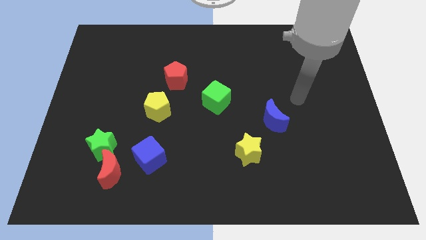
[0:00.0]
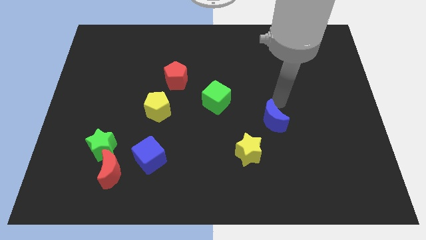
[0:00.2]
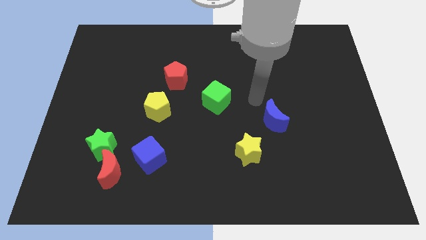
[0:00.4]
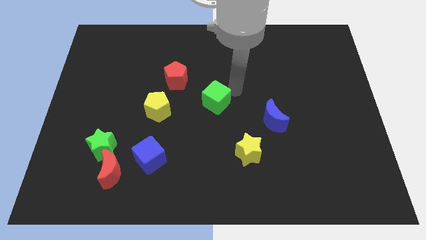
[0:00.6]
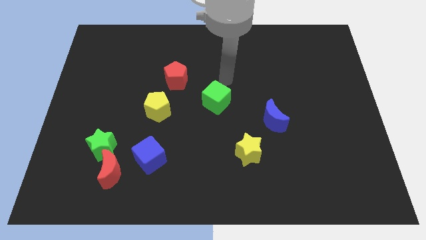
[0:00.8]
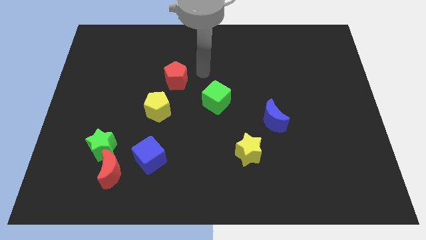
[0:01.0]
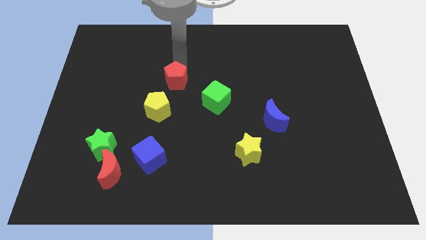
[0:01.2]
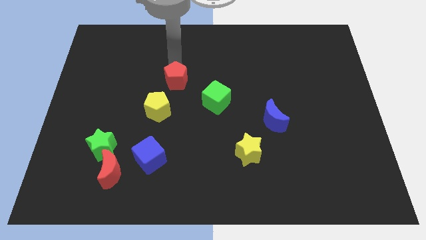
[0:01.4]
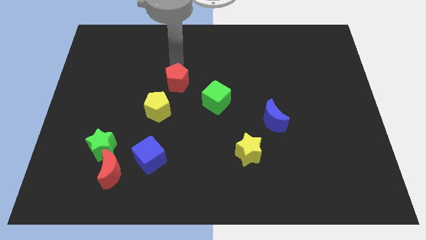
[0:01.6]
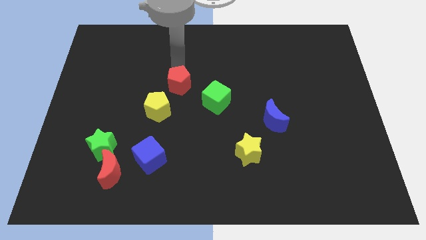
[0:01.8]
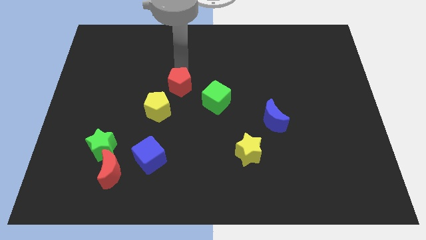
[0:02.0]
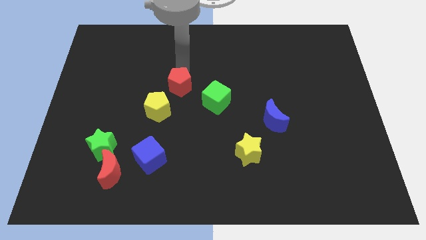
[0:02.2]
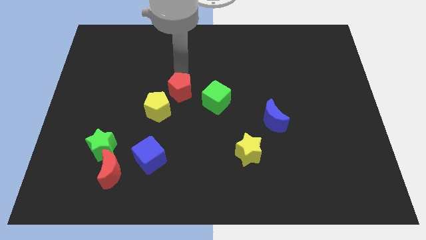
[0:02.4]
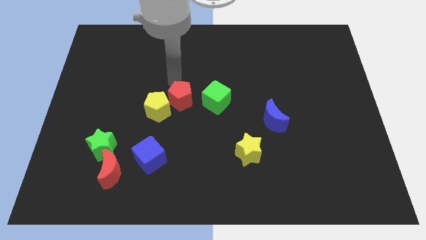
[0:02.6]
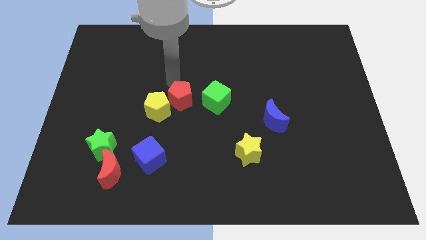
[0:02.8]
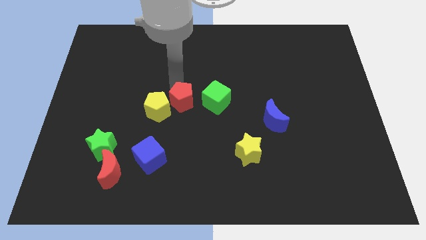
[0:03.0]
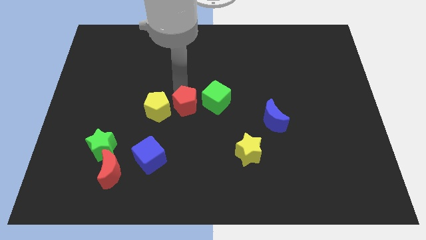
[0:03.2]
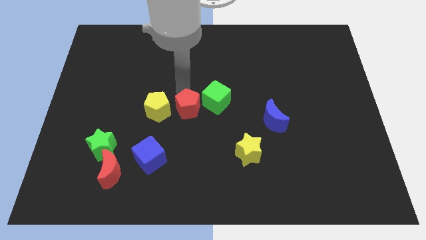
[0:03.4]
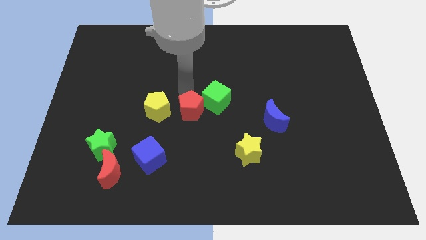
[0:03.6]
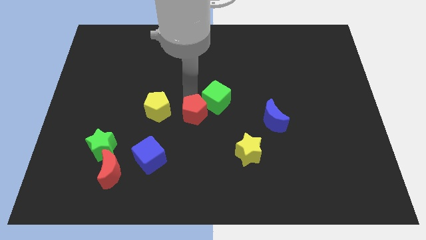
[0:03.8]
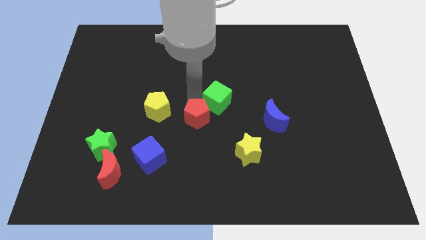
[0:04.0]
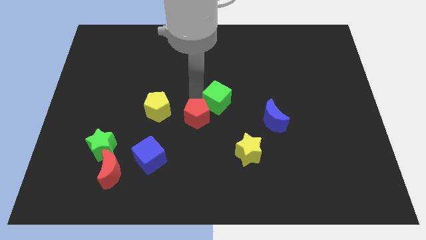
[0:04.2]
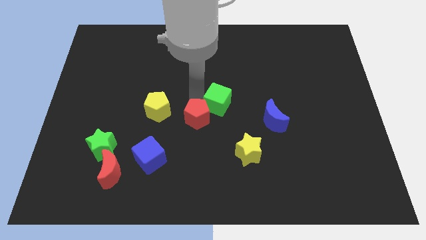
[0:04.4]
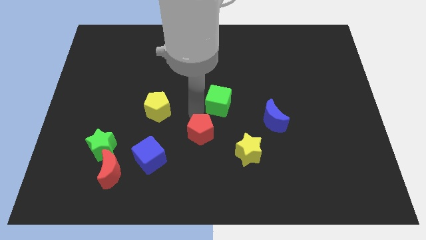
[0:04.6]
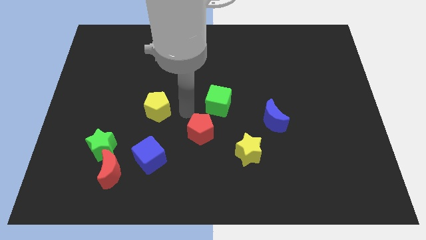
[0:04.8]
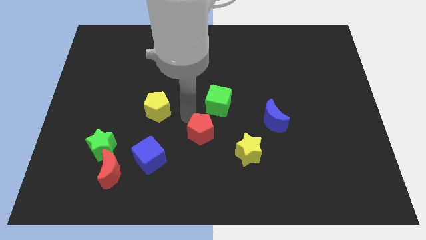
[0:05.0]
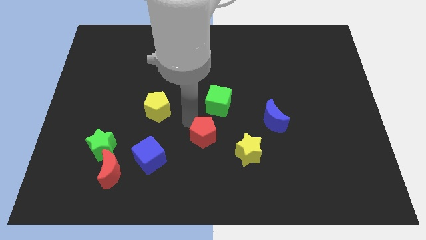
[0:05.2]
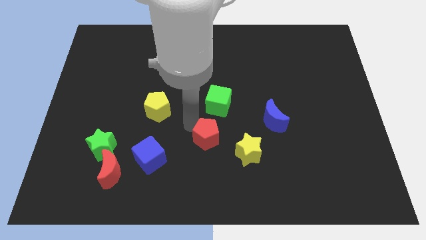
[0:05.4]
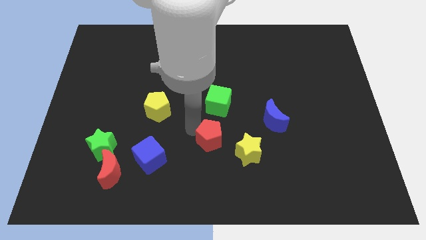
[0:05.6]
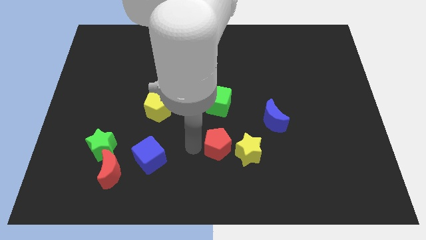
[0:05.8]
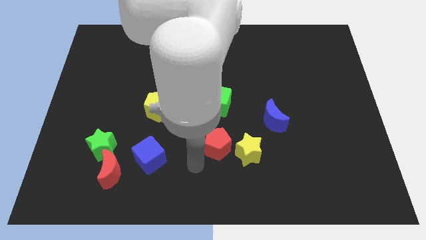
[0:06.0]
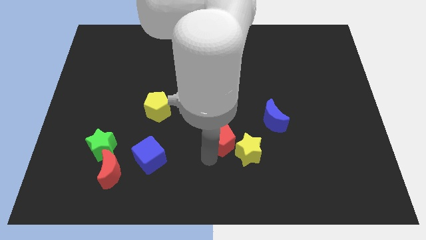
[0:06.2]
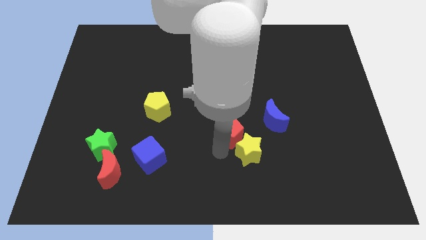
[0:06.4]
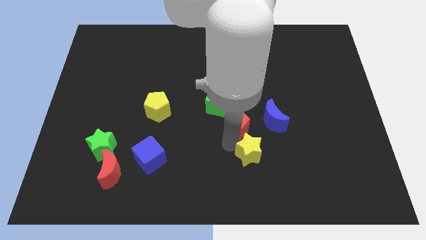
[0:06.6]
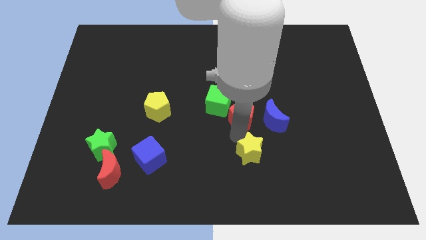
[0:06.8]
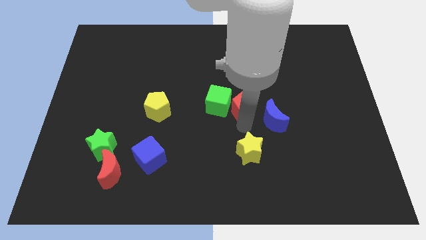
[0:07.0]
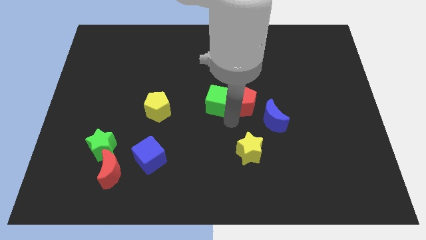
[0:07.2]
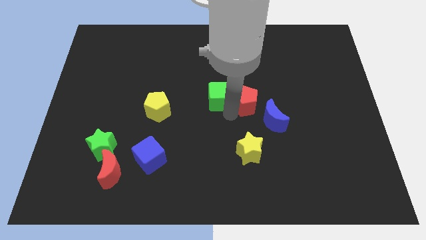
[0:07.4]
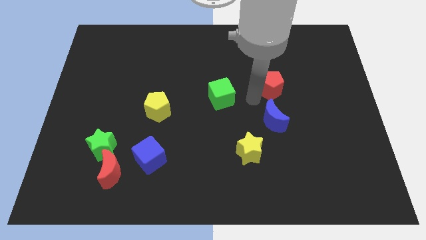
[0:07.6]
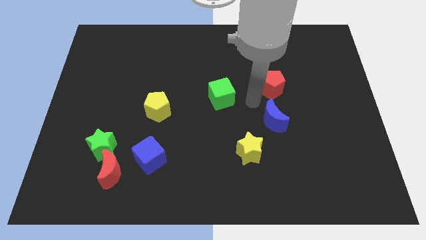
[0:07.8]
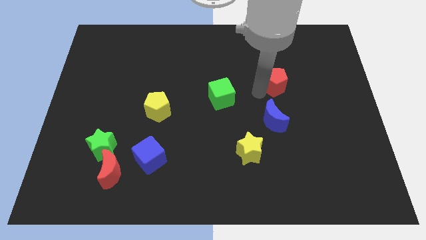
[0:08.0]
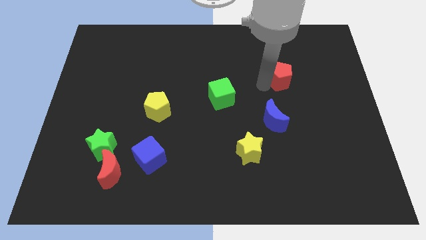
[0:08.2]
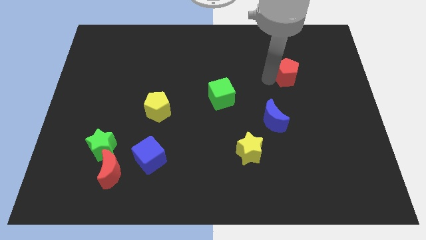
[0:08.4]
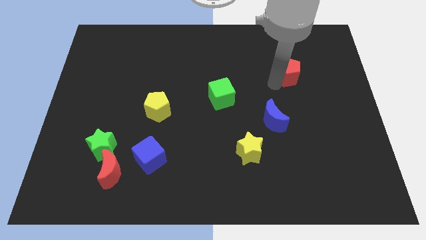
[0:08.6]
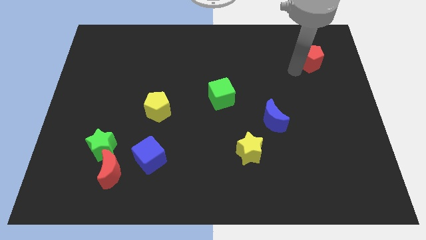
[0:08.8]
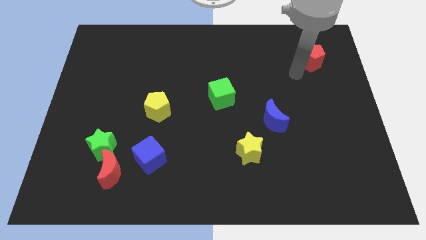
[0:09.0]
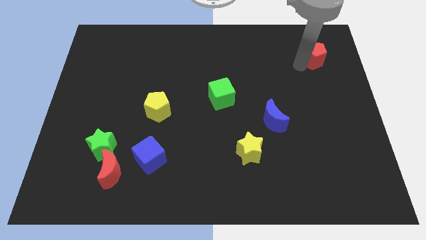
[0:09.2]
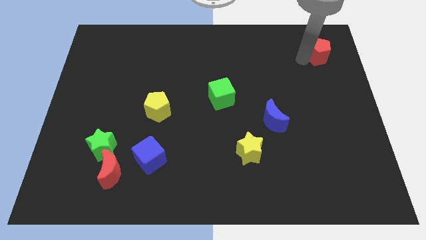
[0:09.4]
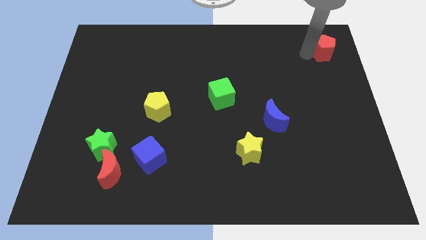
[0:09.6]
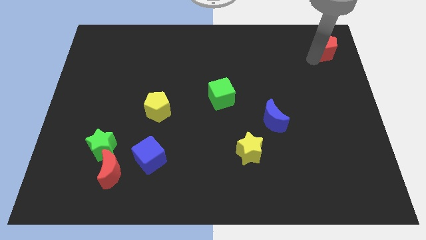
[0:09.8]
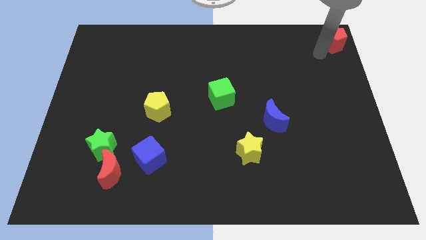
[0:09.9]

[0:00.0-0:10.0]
slide the red pentagon to the top right
